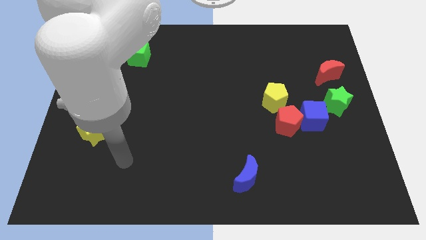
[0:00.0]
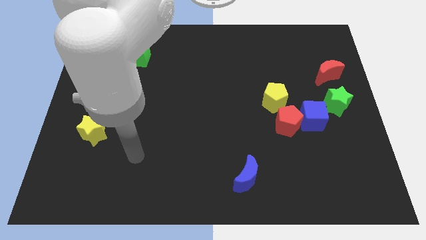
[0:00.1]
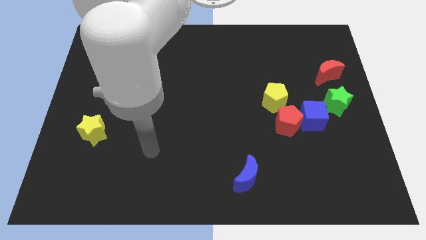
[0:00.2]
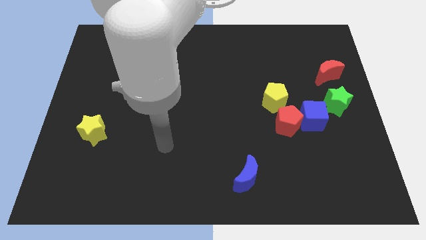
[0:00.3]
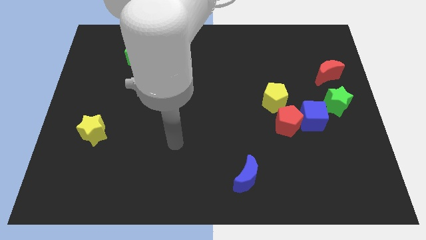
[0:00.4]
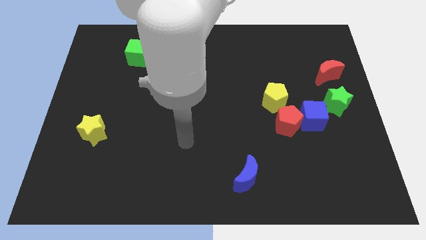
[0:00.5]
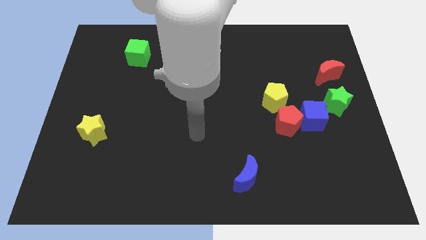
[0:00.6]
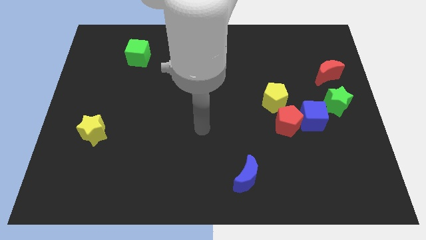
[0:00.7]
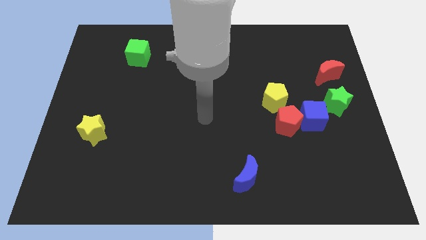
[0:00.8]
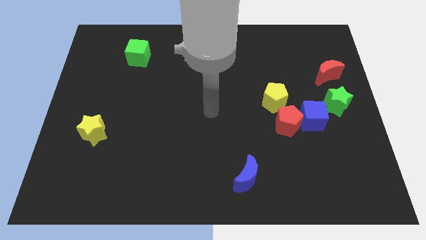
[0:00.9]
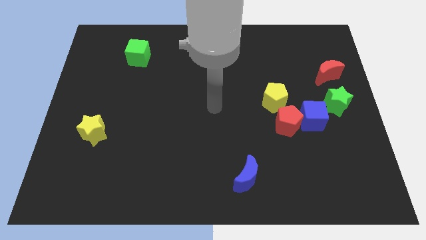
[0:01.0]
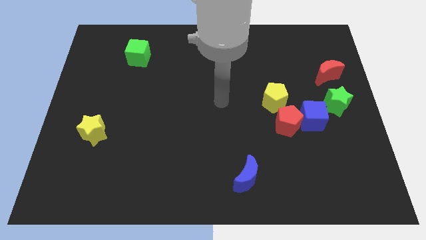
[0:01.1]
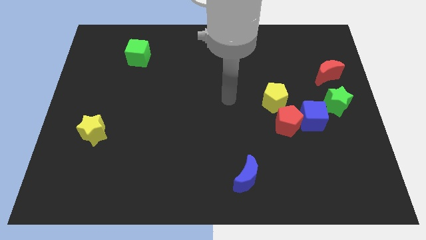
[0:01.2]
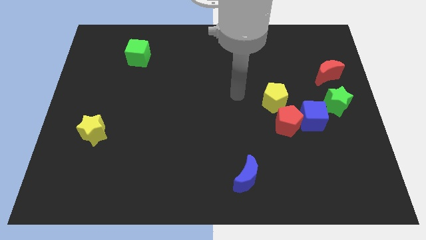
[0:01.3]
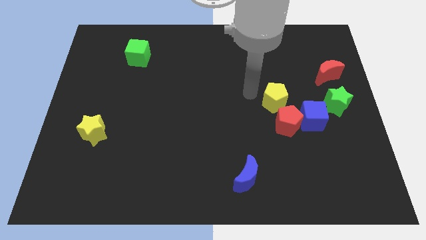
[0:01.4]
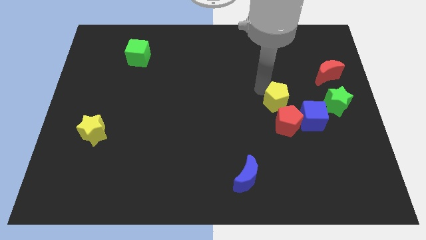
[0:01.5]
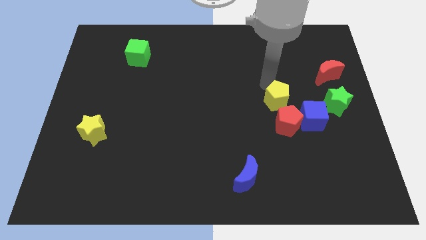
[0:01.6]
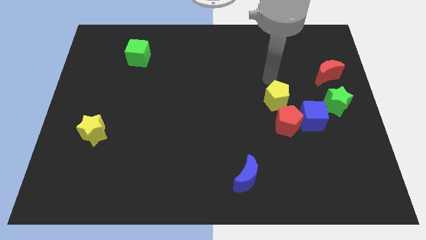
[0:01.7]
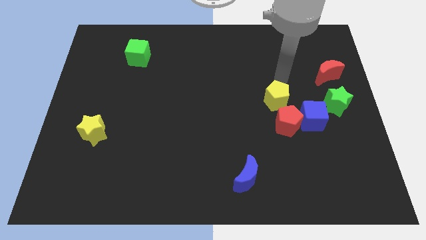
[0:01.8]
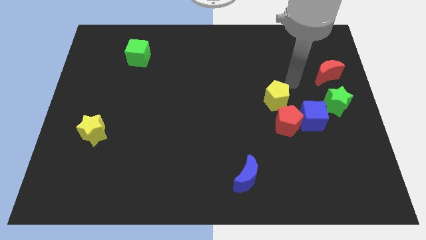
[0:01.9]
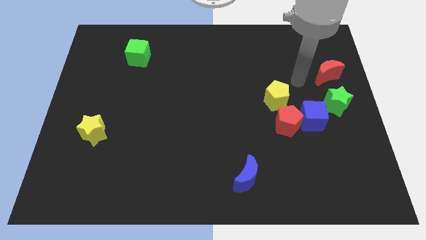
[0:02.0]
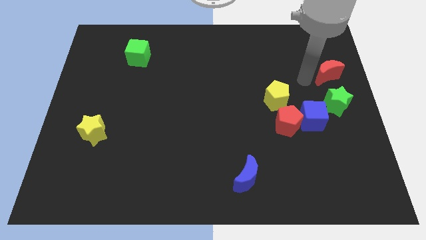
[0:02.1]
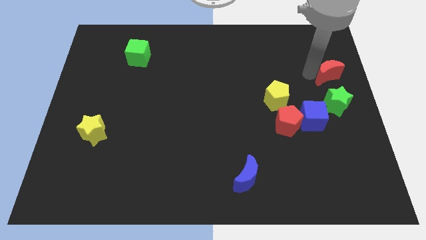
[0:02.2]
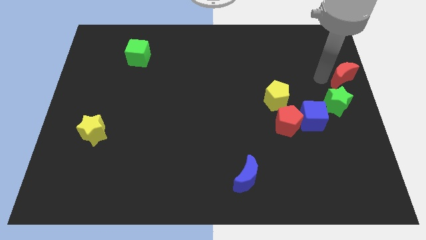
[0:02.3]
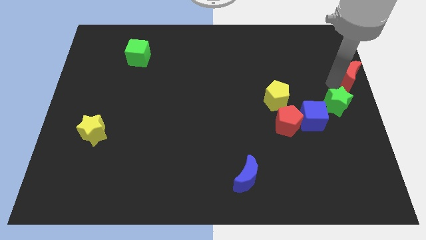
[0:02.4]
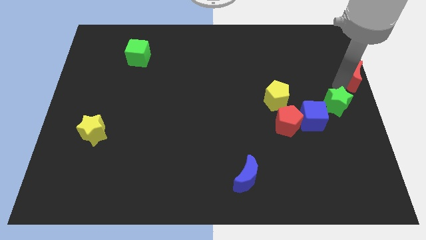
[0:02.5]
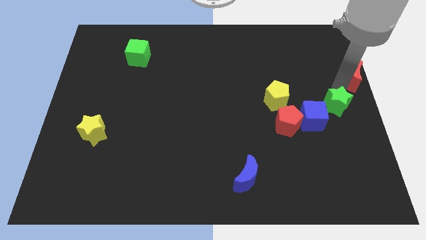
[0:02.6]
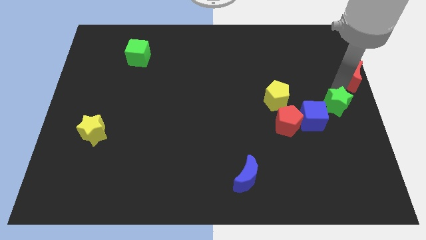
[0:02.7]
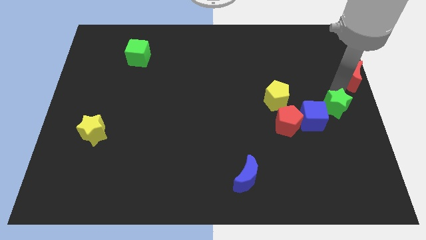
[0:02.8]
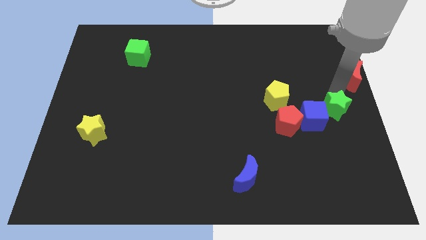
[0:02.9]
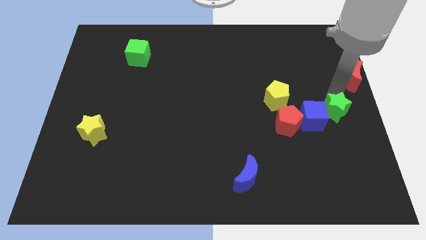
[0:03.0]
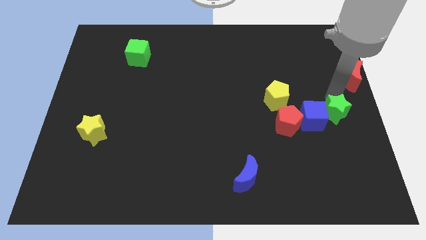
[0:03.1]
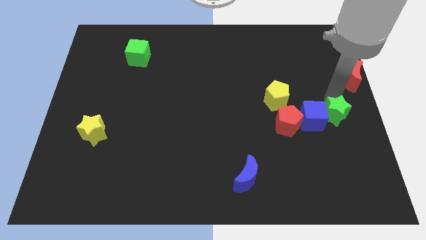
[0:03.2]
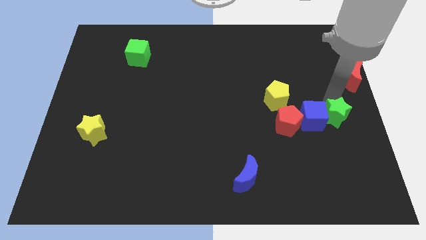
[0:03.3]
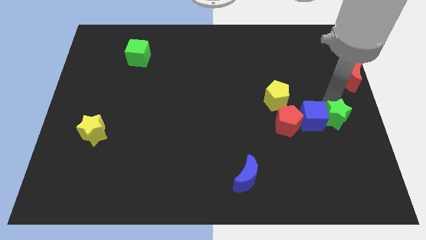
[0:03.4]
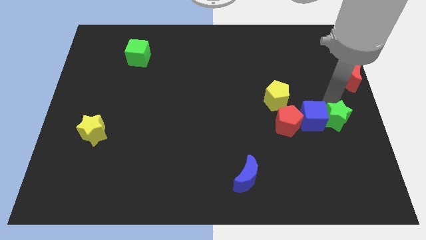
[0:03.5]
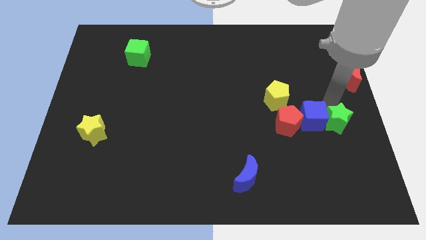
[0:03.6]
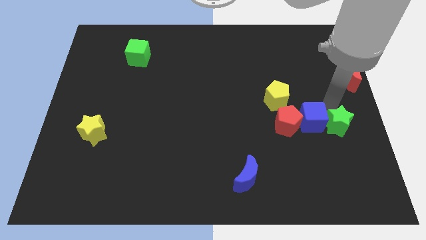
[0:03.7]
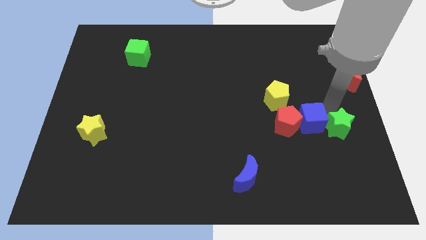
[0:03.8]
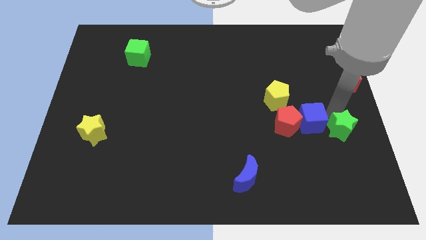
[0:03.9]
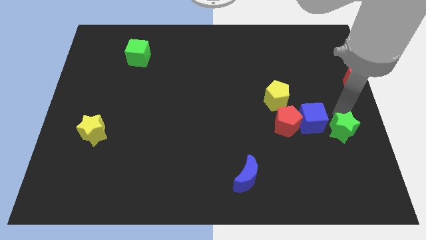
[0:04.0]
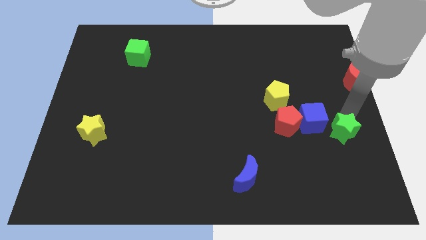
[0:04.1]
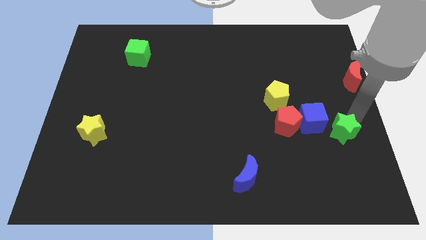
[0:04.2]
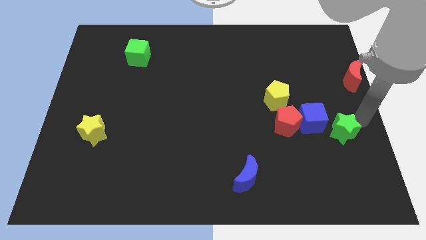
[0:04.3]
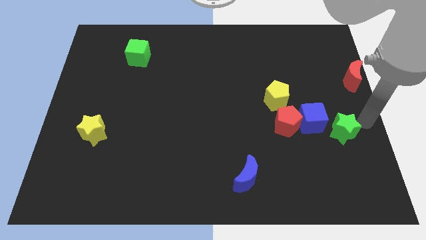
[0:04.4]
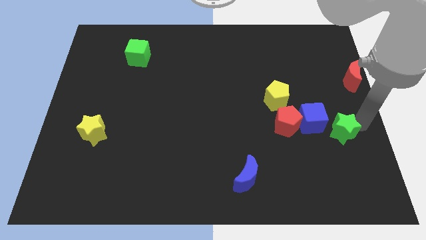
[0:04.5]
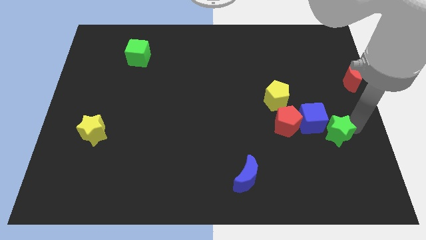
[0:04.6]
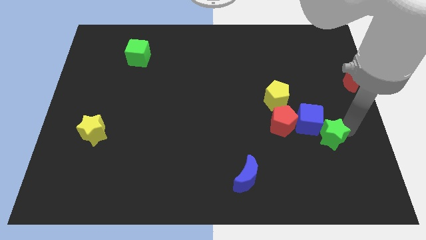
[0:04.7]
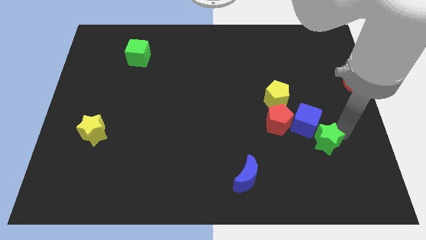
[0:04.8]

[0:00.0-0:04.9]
push the green star to the bottom right of the red pentagon

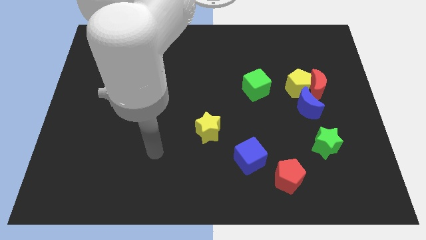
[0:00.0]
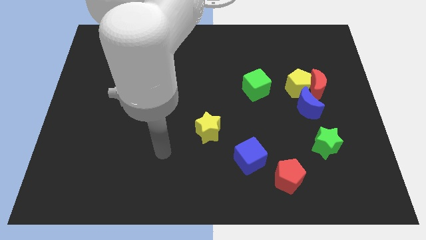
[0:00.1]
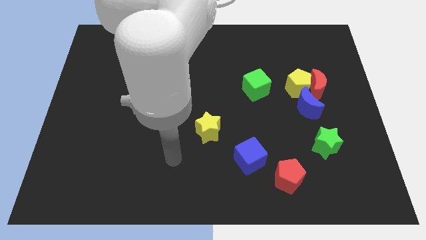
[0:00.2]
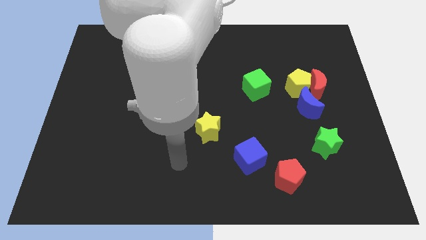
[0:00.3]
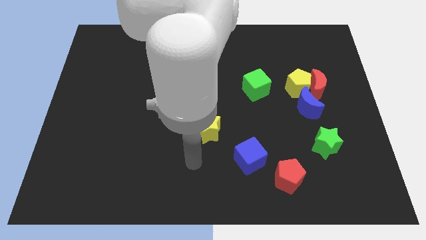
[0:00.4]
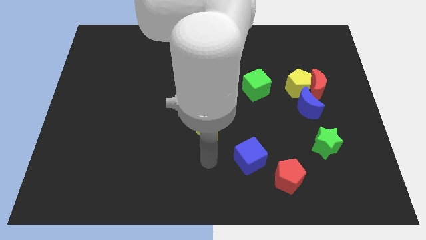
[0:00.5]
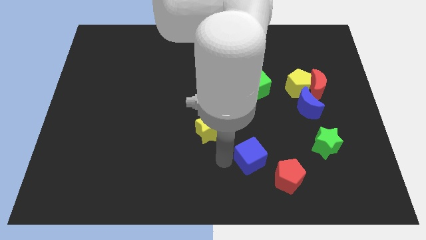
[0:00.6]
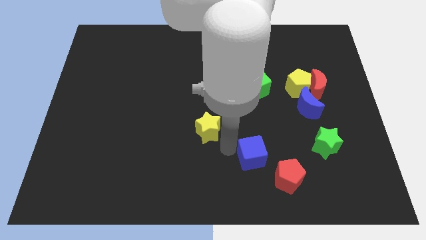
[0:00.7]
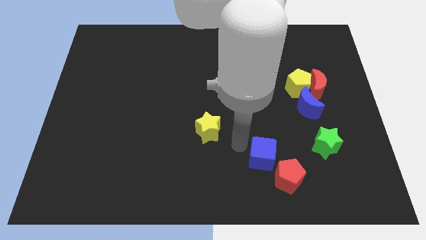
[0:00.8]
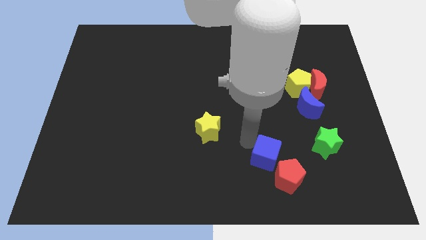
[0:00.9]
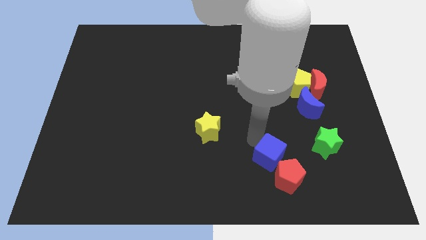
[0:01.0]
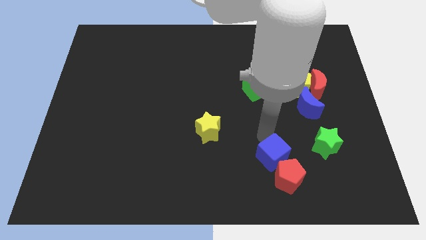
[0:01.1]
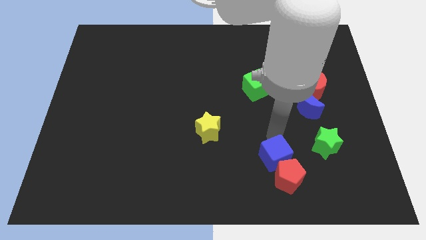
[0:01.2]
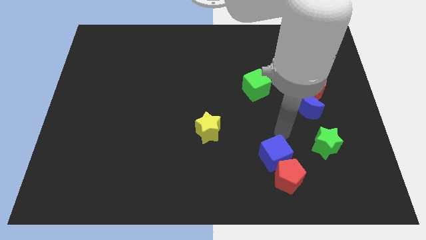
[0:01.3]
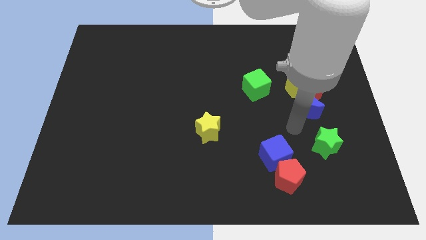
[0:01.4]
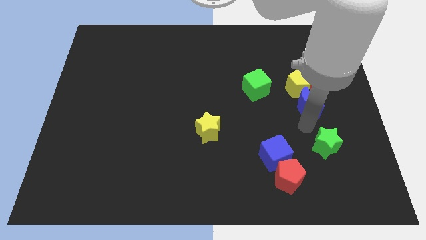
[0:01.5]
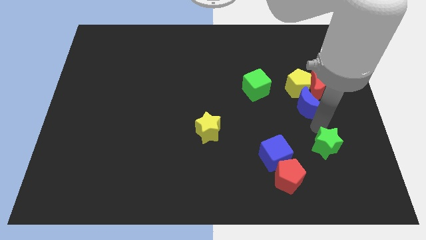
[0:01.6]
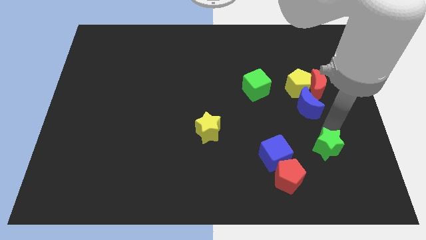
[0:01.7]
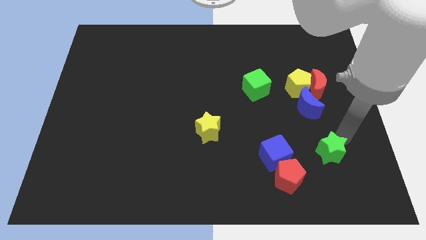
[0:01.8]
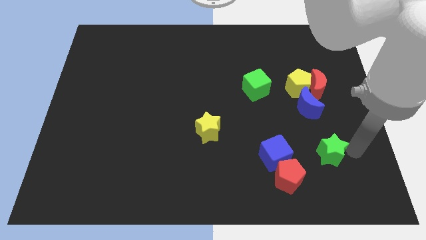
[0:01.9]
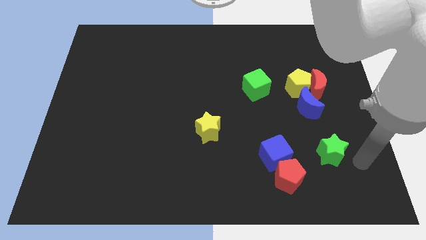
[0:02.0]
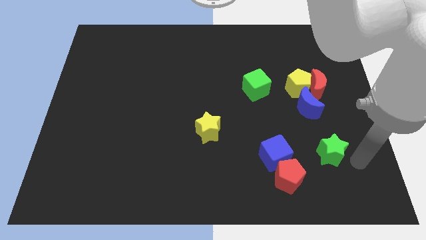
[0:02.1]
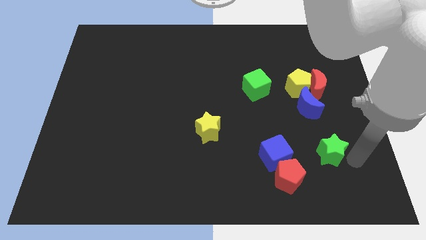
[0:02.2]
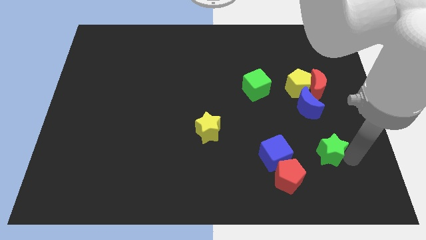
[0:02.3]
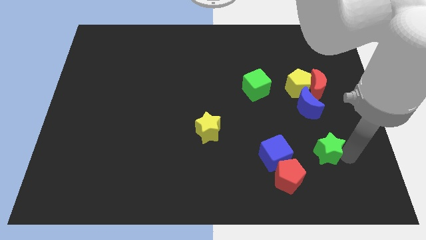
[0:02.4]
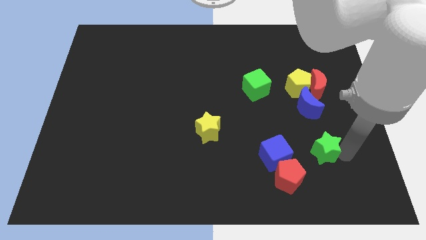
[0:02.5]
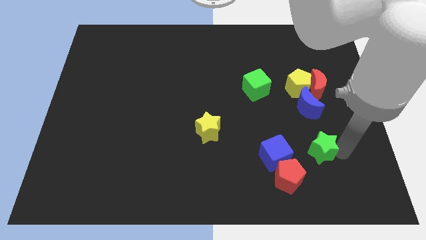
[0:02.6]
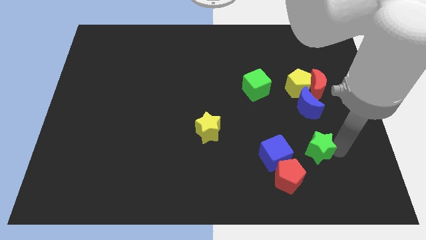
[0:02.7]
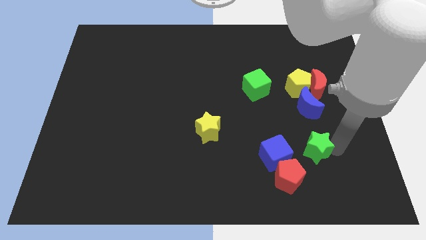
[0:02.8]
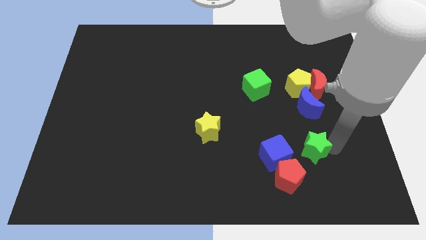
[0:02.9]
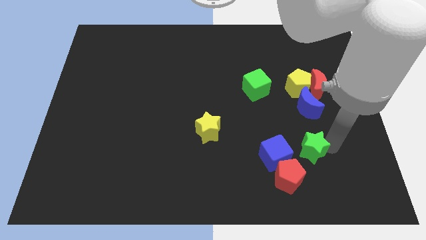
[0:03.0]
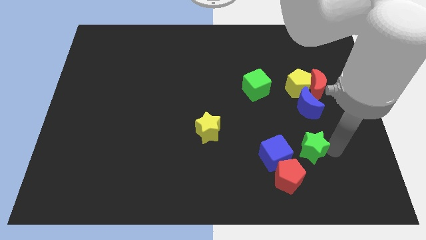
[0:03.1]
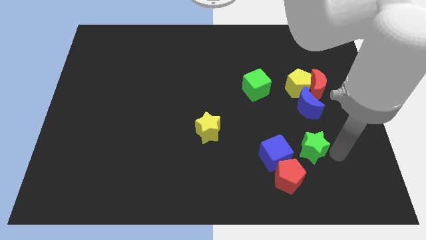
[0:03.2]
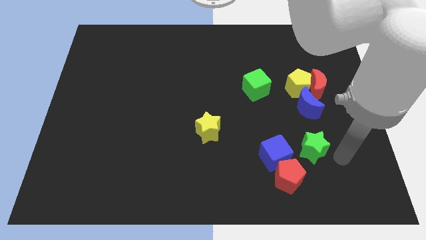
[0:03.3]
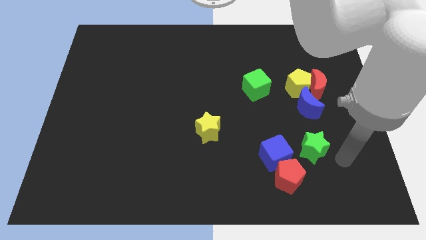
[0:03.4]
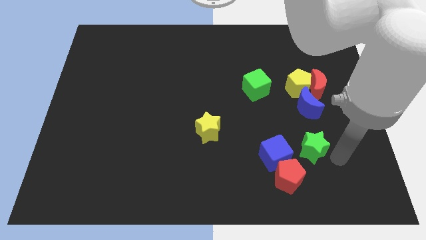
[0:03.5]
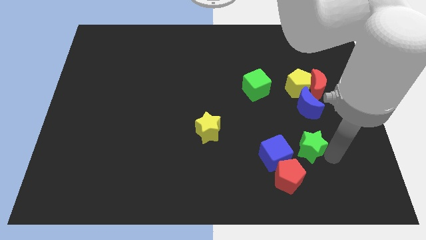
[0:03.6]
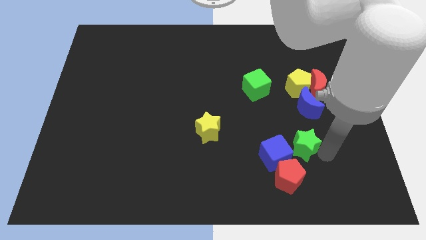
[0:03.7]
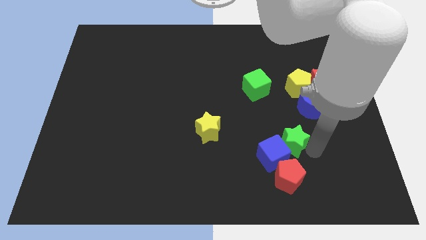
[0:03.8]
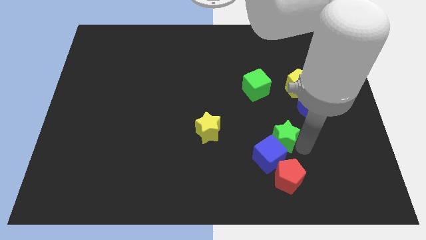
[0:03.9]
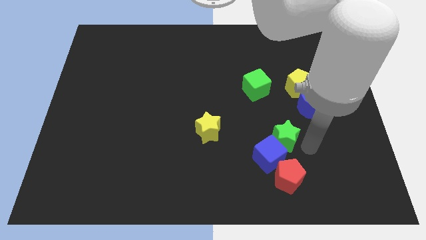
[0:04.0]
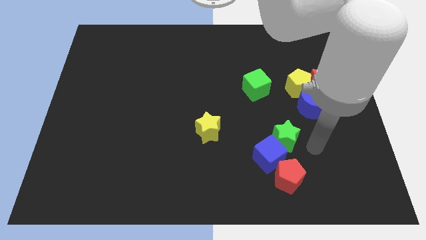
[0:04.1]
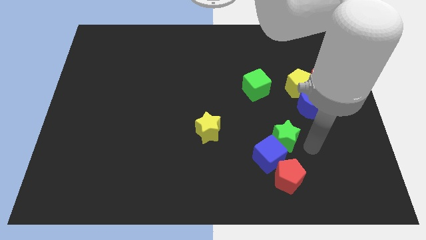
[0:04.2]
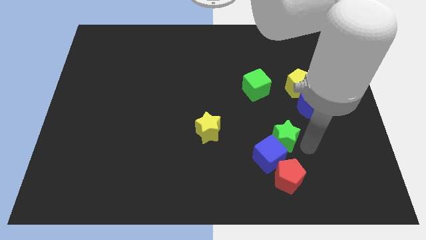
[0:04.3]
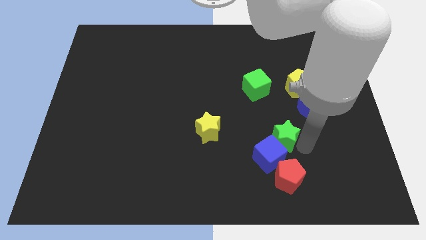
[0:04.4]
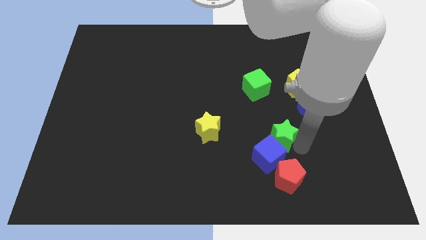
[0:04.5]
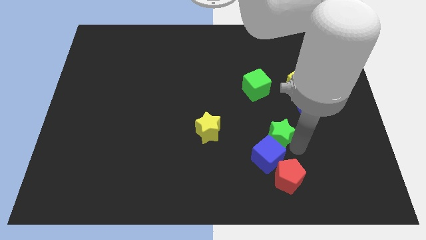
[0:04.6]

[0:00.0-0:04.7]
put the green star to the right of the yellow star
